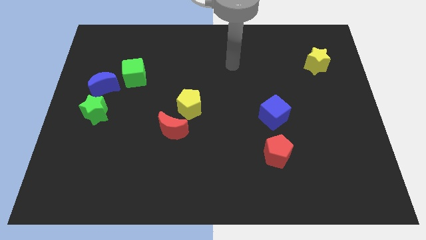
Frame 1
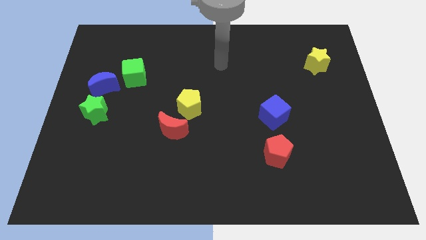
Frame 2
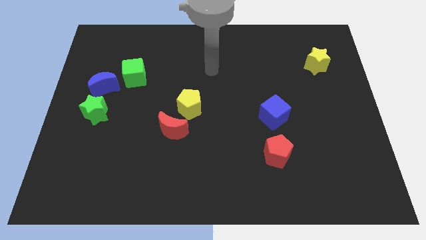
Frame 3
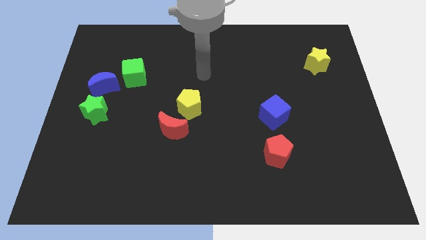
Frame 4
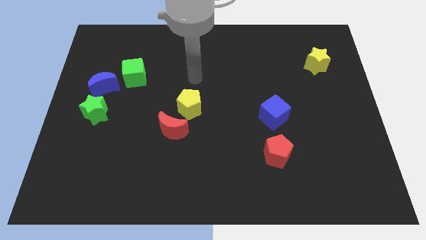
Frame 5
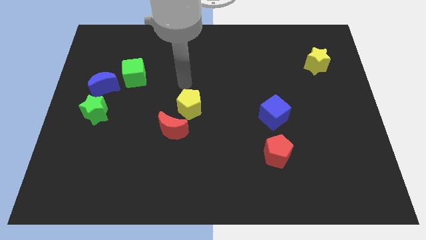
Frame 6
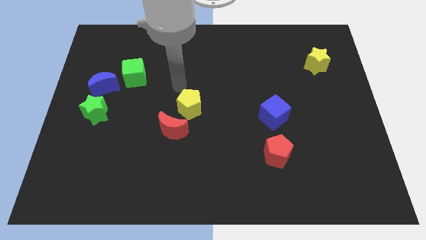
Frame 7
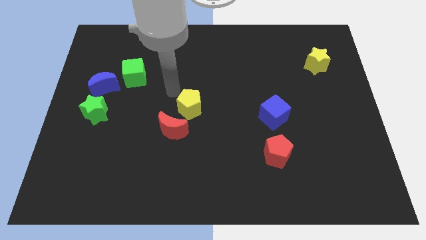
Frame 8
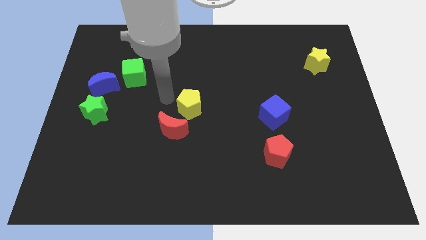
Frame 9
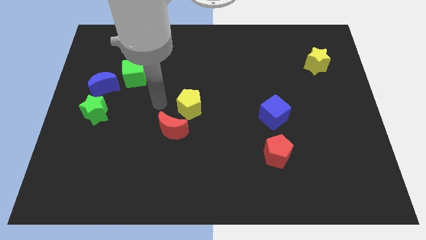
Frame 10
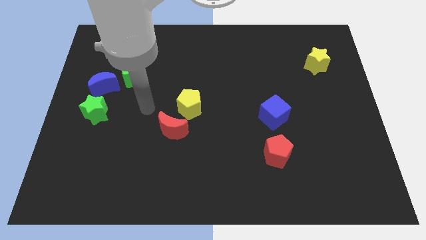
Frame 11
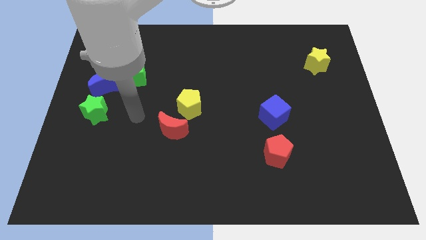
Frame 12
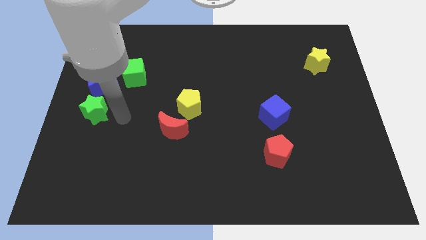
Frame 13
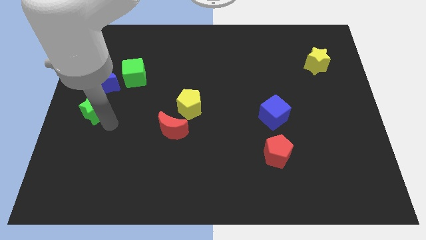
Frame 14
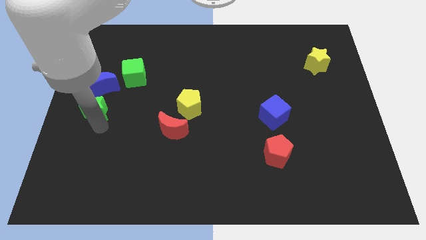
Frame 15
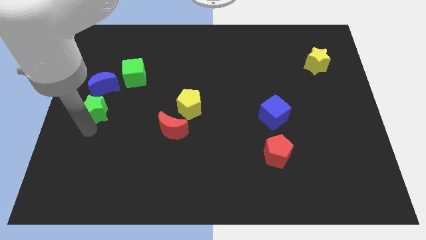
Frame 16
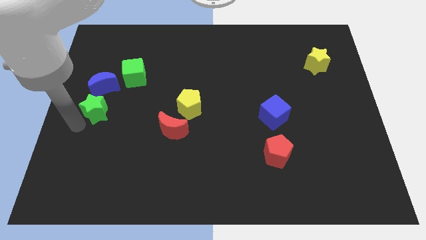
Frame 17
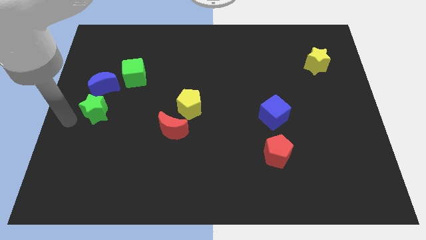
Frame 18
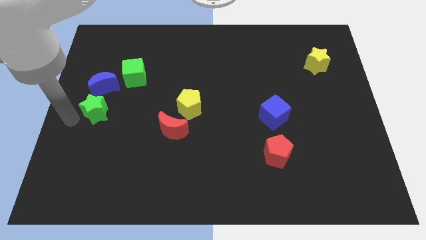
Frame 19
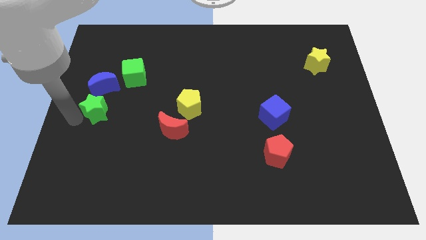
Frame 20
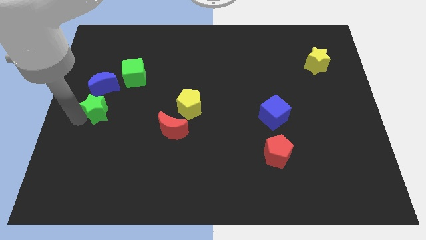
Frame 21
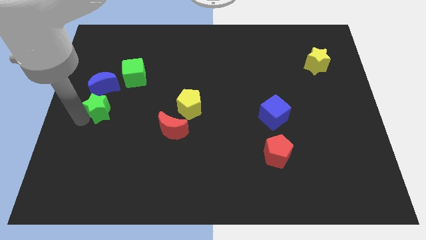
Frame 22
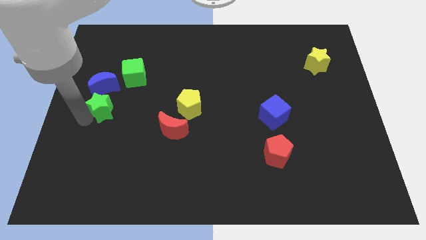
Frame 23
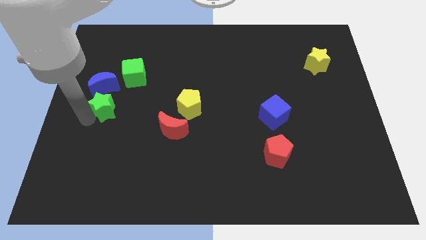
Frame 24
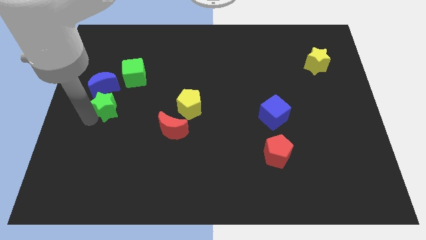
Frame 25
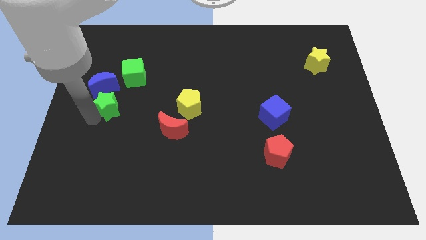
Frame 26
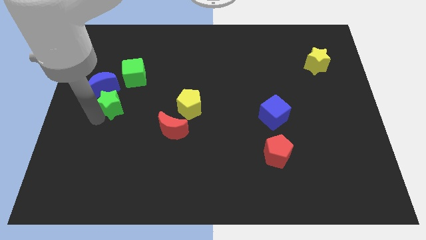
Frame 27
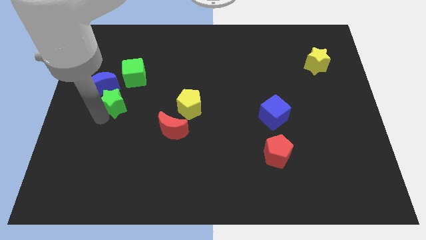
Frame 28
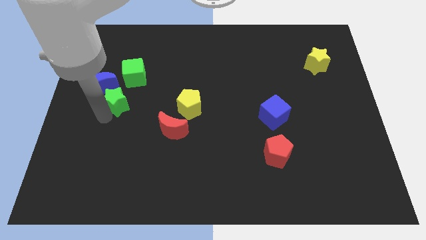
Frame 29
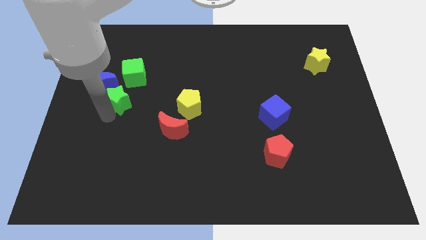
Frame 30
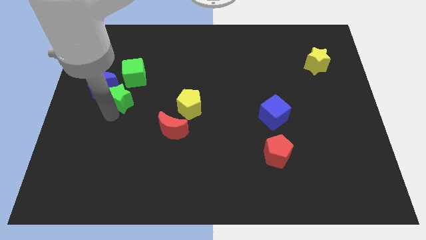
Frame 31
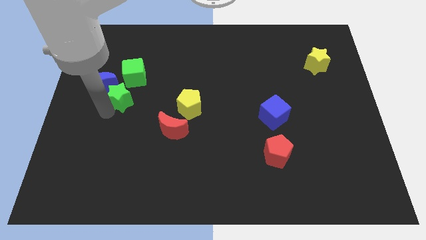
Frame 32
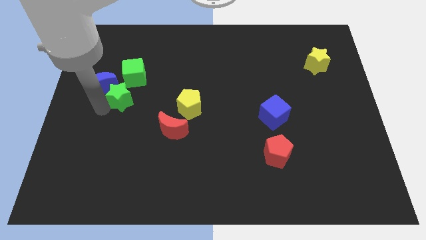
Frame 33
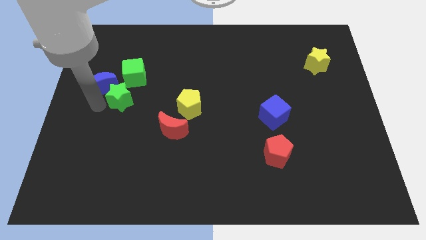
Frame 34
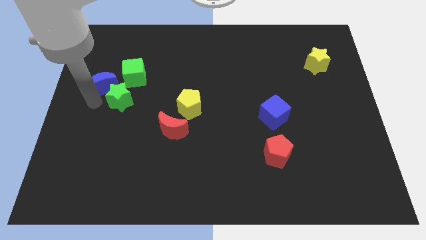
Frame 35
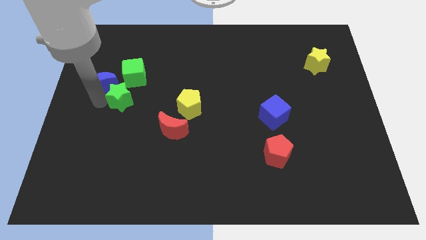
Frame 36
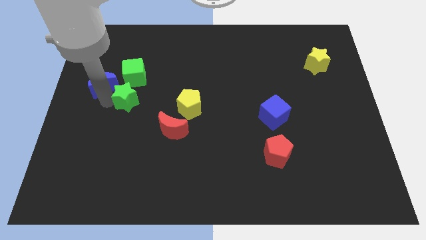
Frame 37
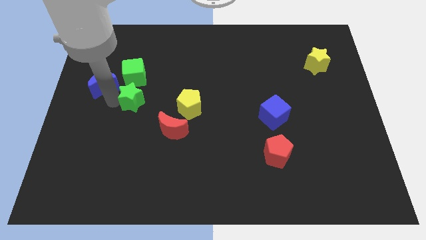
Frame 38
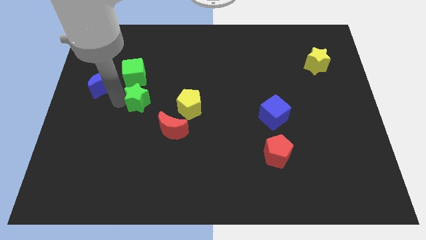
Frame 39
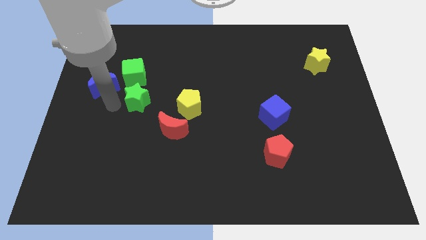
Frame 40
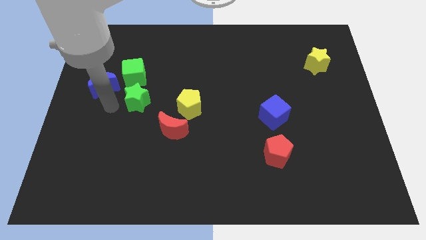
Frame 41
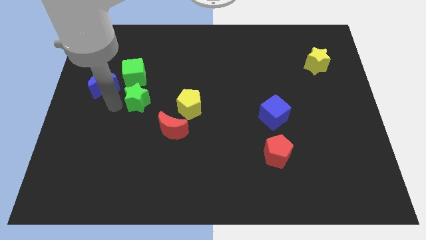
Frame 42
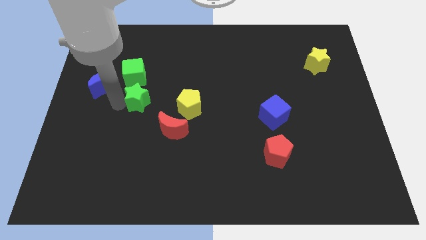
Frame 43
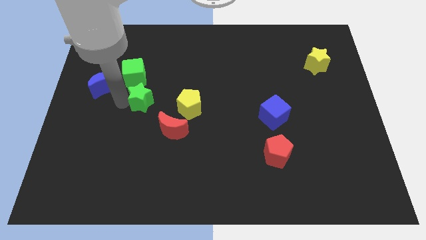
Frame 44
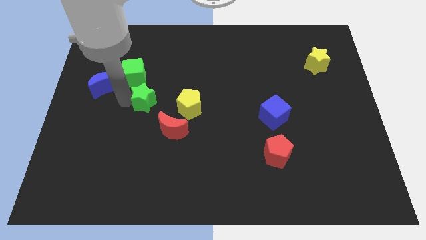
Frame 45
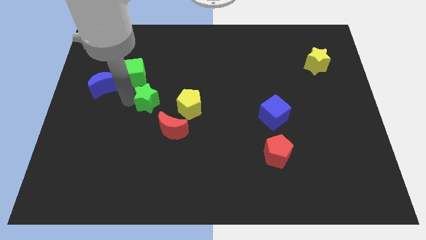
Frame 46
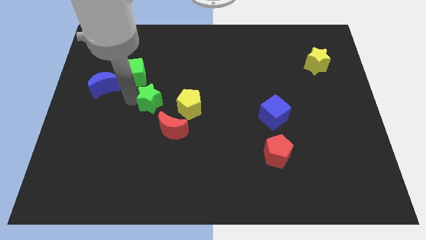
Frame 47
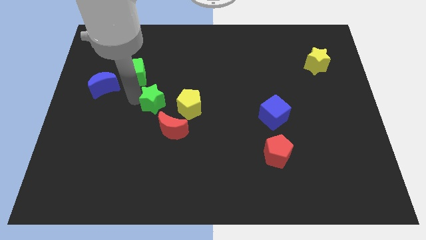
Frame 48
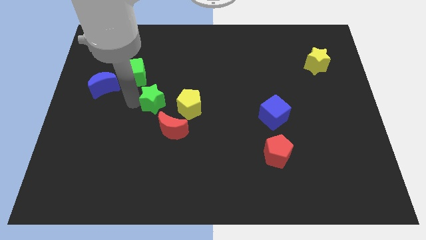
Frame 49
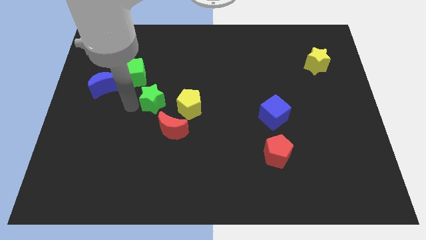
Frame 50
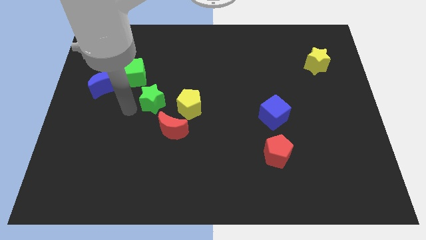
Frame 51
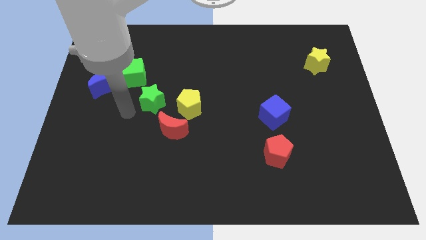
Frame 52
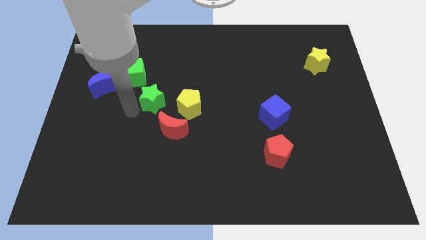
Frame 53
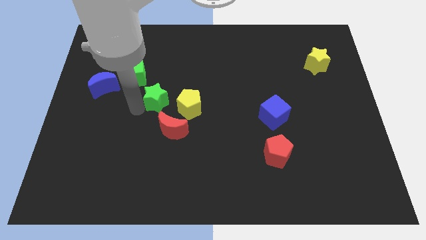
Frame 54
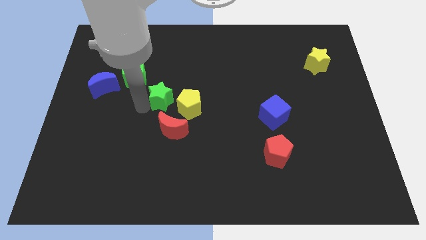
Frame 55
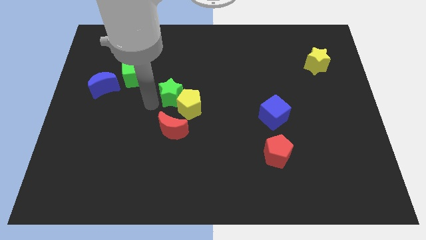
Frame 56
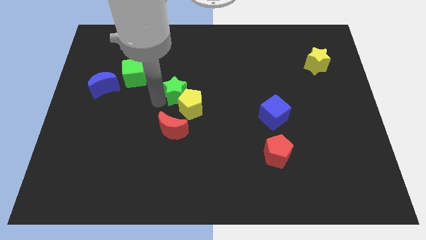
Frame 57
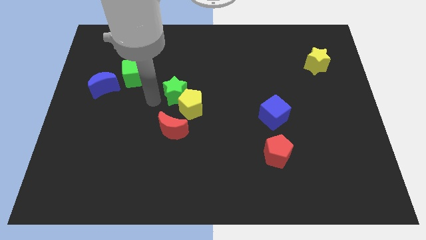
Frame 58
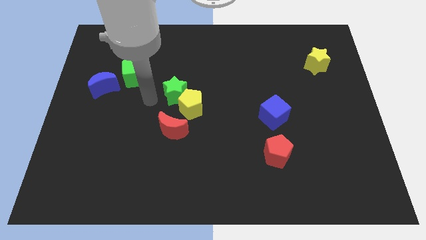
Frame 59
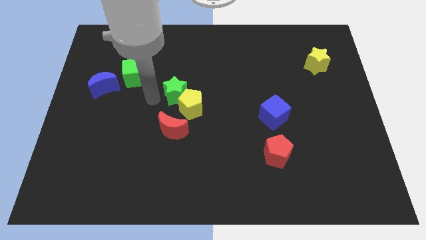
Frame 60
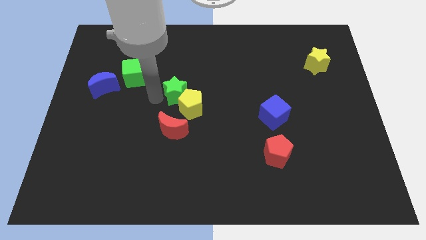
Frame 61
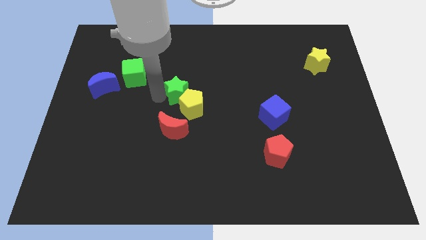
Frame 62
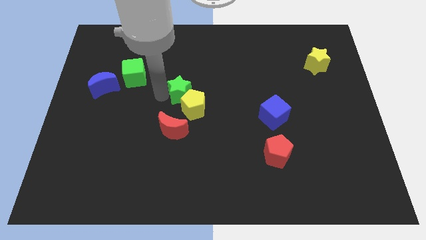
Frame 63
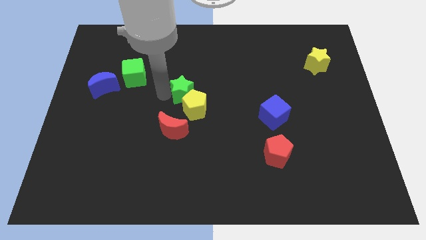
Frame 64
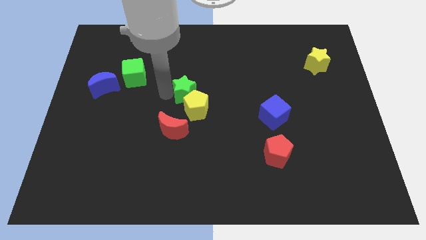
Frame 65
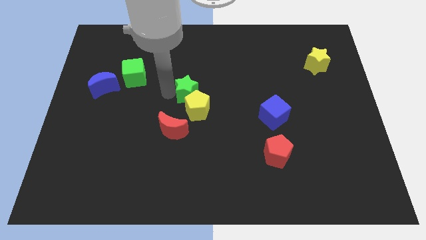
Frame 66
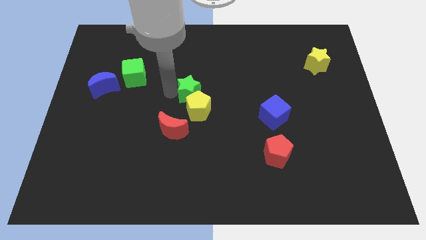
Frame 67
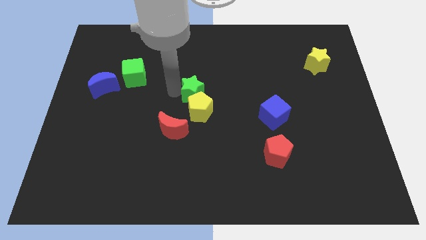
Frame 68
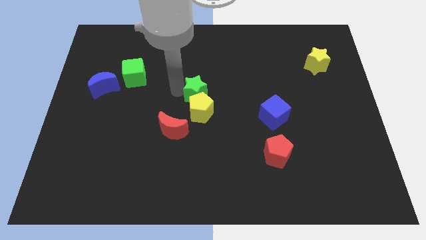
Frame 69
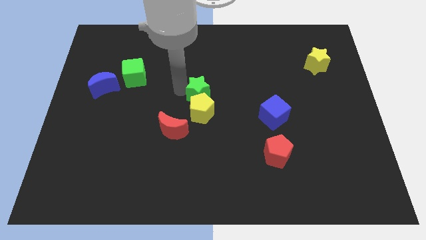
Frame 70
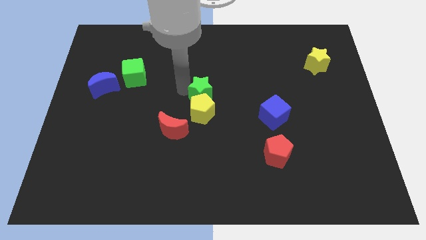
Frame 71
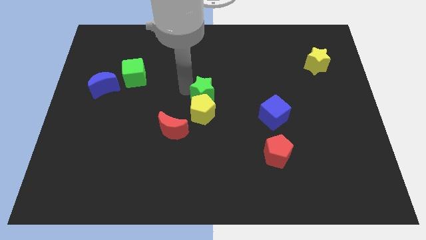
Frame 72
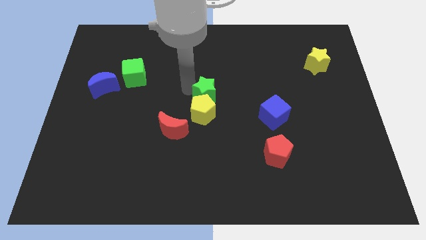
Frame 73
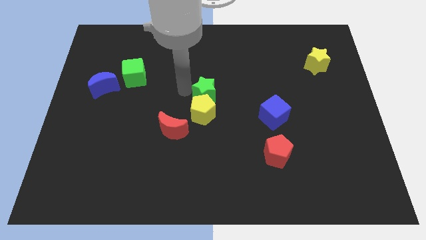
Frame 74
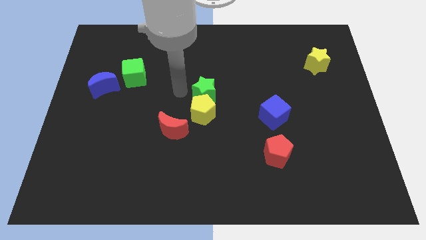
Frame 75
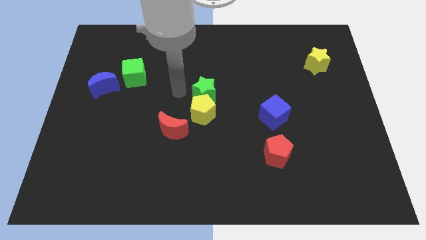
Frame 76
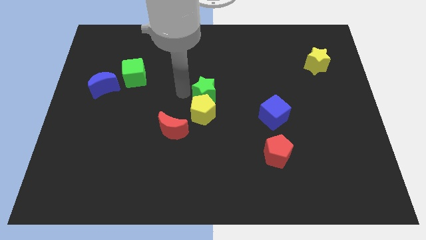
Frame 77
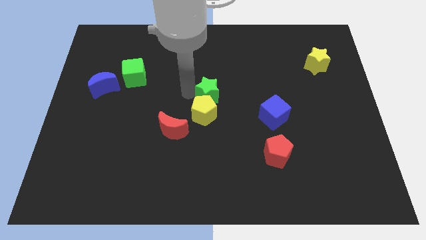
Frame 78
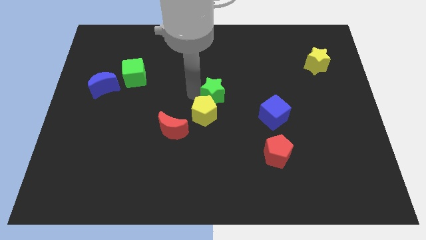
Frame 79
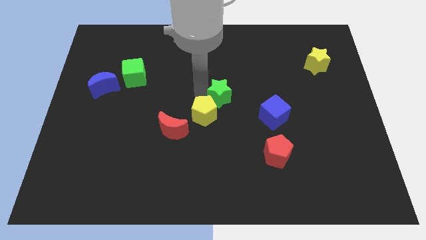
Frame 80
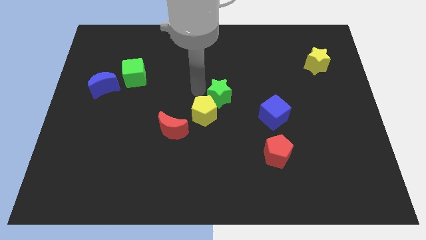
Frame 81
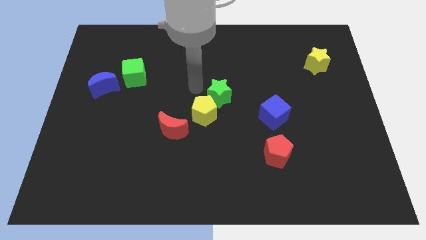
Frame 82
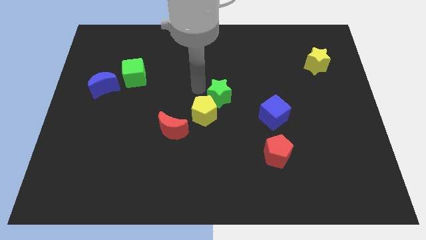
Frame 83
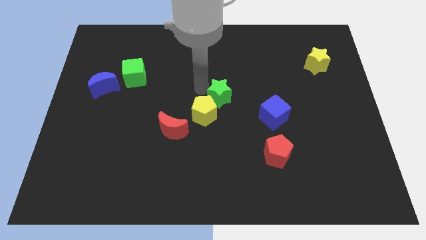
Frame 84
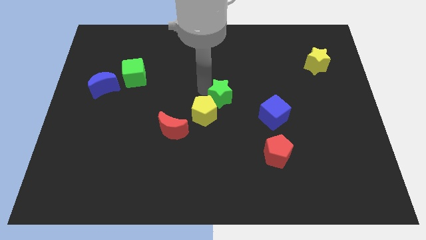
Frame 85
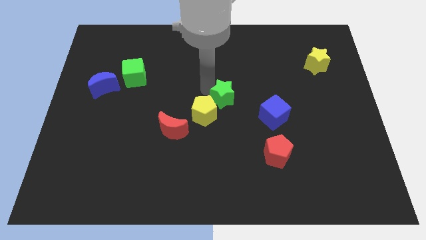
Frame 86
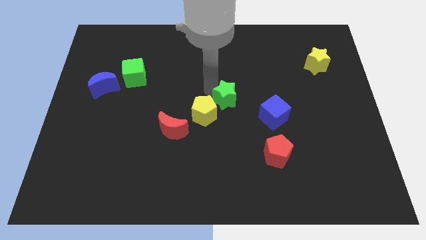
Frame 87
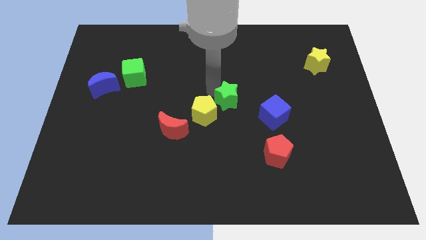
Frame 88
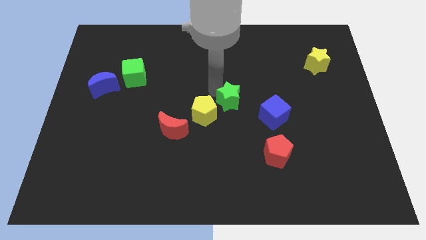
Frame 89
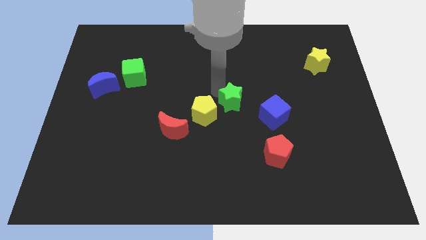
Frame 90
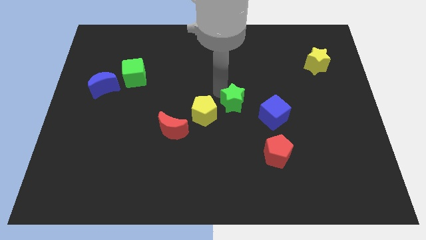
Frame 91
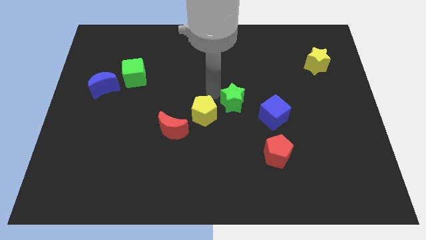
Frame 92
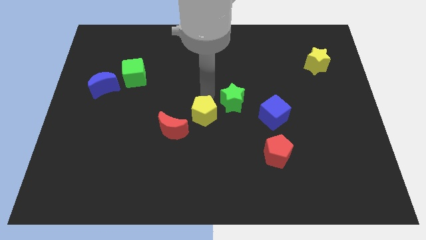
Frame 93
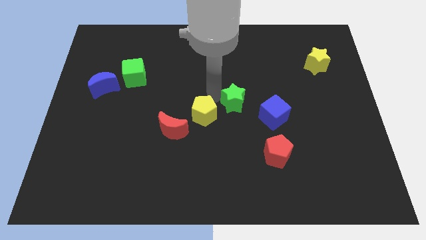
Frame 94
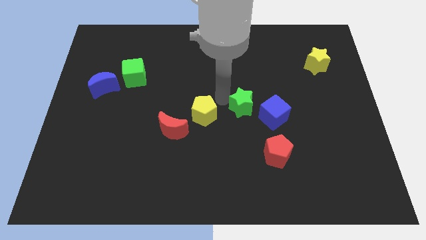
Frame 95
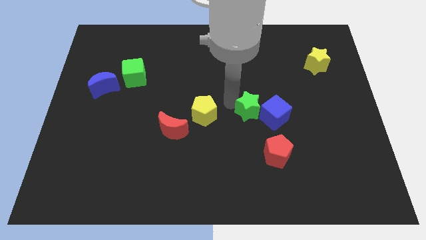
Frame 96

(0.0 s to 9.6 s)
push the green star towards the blue cube
